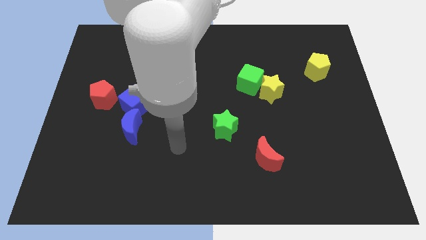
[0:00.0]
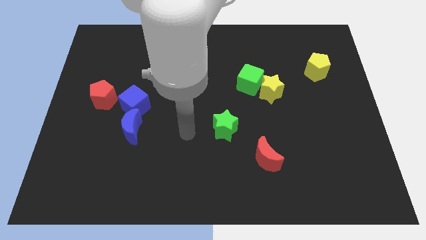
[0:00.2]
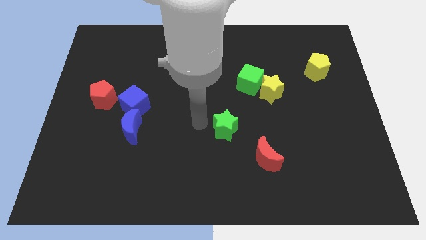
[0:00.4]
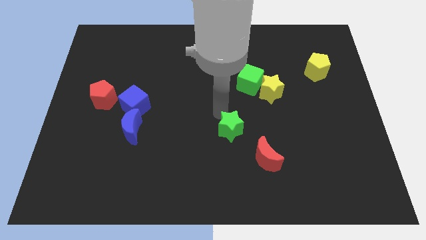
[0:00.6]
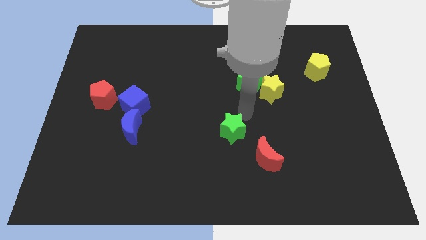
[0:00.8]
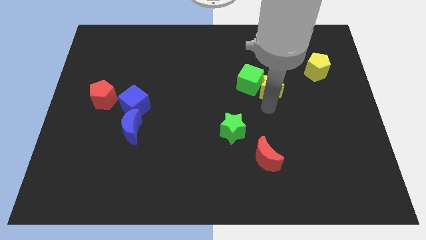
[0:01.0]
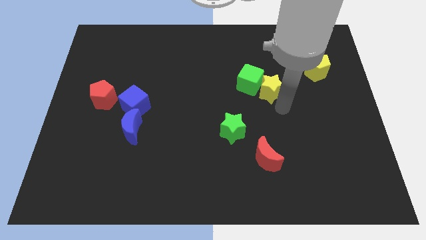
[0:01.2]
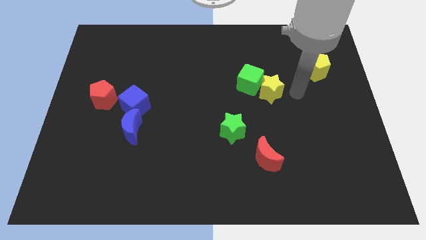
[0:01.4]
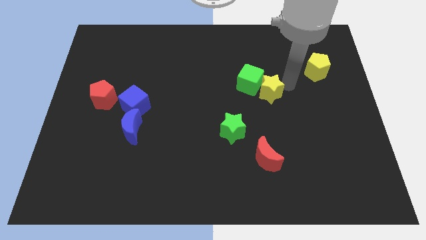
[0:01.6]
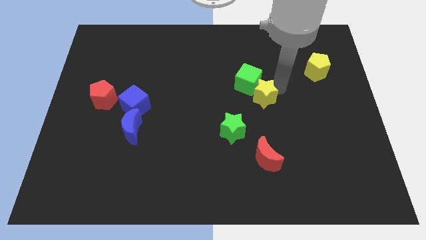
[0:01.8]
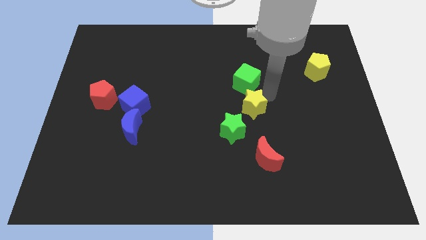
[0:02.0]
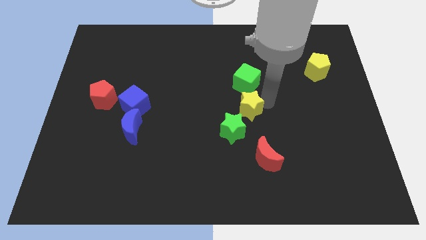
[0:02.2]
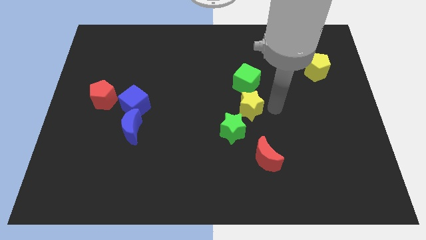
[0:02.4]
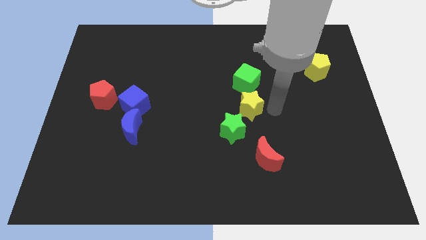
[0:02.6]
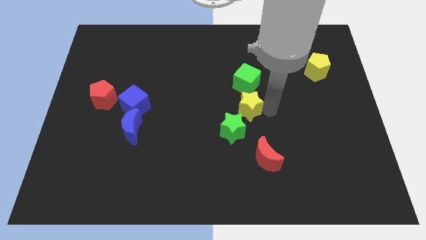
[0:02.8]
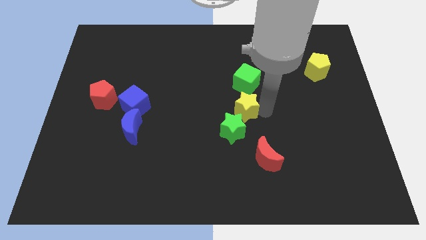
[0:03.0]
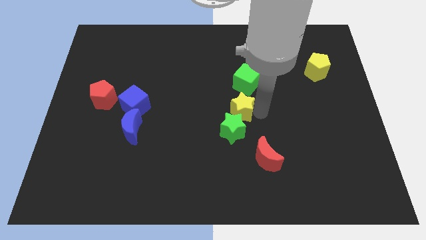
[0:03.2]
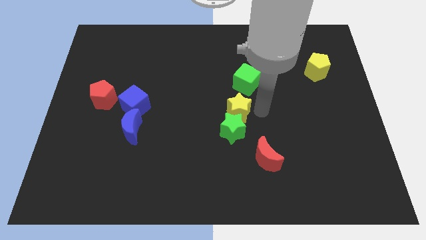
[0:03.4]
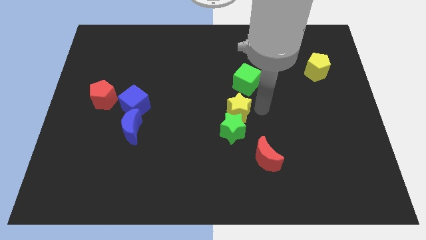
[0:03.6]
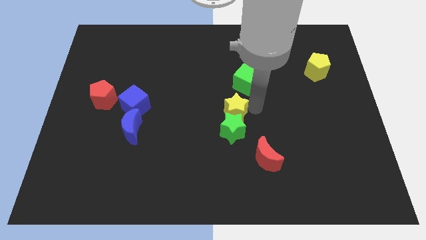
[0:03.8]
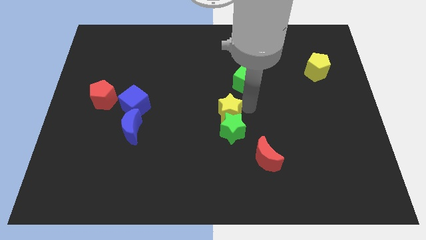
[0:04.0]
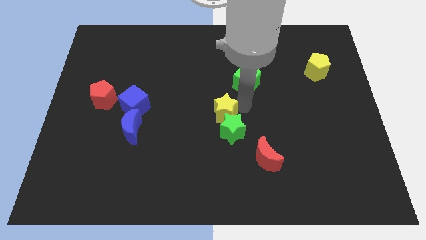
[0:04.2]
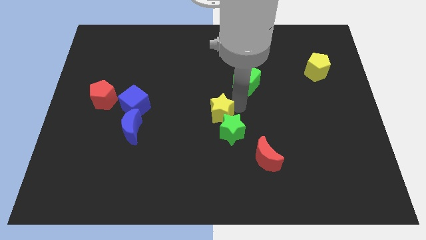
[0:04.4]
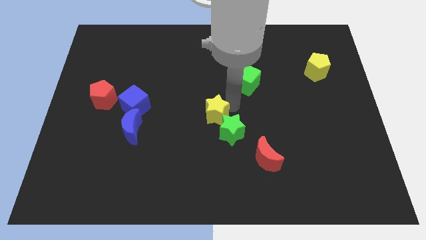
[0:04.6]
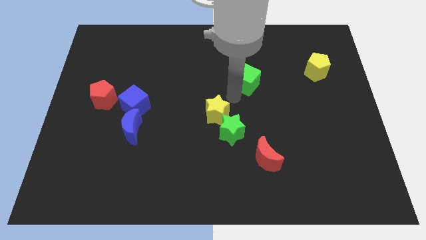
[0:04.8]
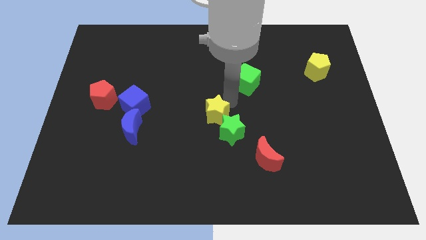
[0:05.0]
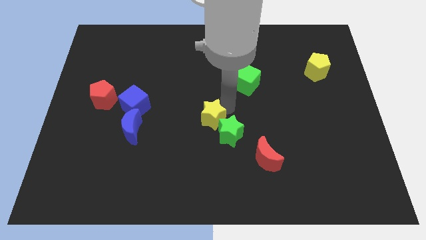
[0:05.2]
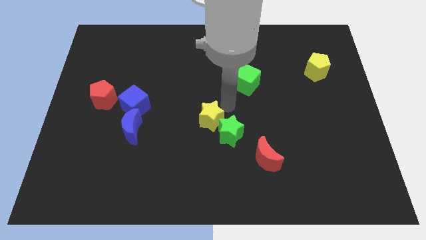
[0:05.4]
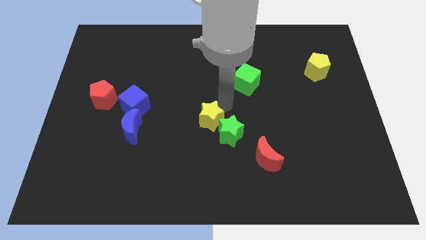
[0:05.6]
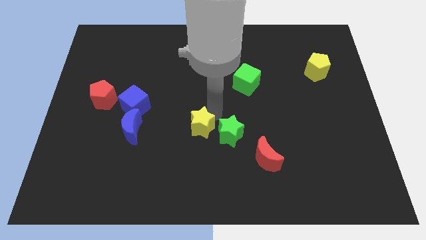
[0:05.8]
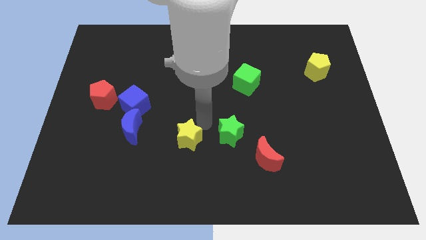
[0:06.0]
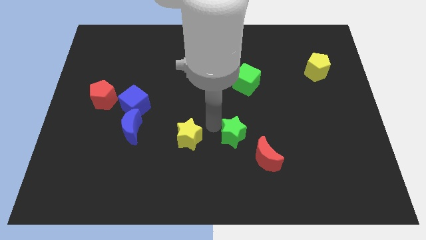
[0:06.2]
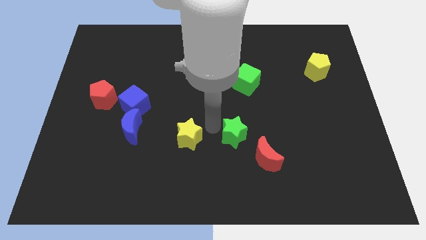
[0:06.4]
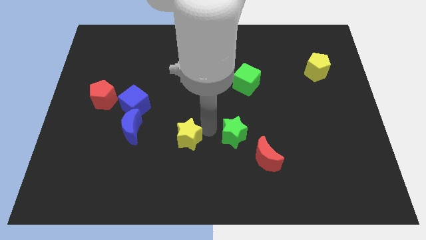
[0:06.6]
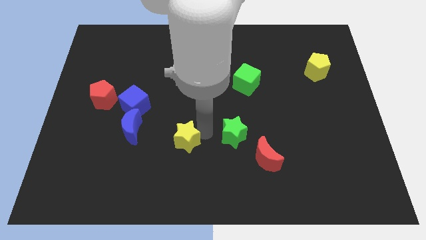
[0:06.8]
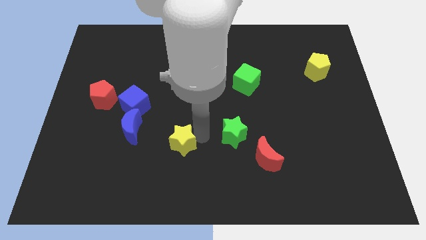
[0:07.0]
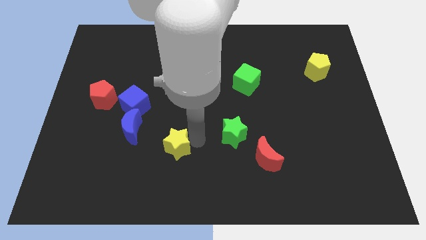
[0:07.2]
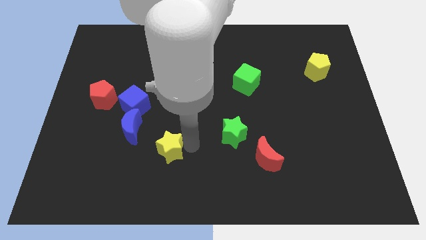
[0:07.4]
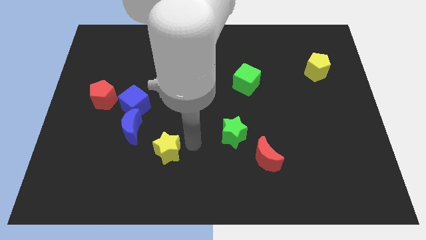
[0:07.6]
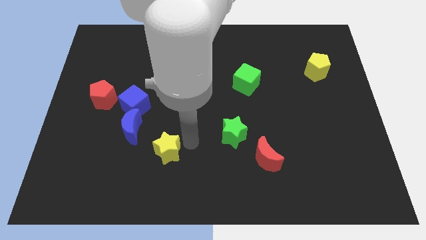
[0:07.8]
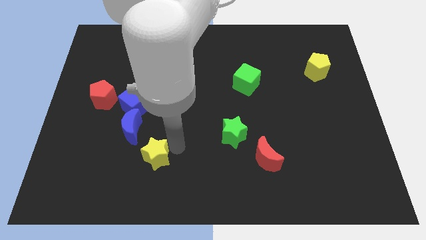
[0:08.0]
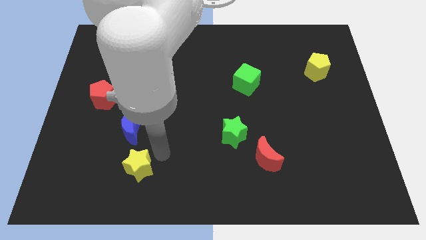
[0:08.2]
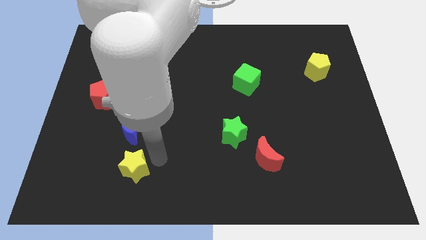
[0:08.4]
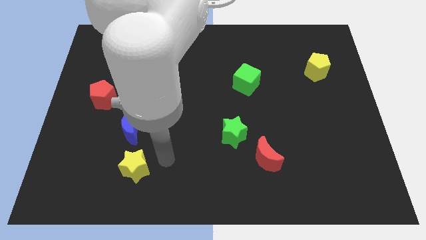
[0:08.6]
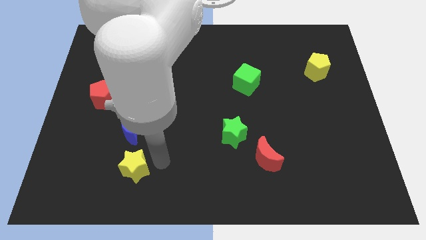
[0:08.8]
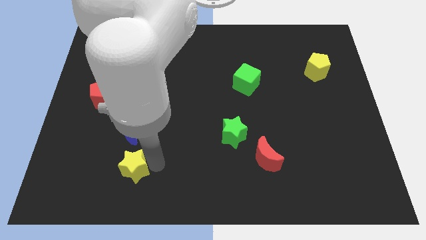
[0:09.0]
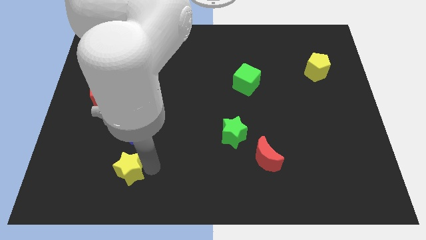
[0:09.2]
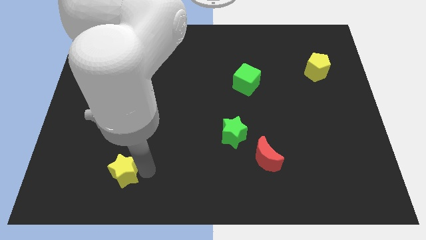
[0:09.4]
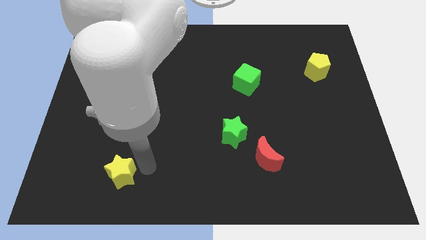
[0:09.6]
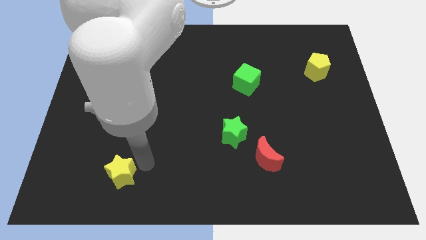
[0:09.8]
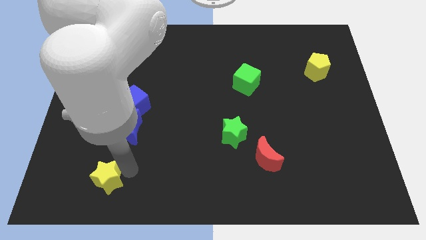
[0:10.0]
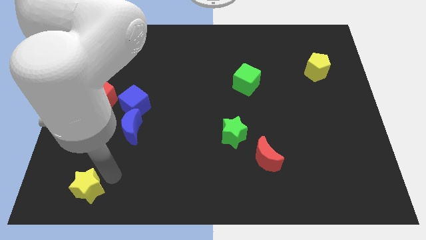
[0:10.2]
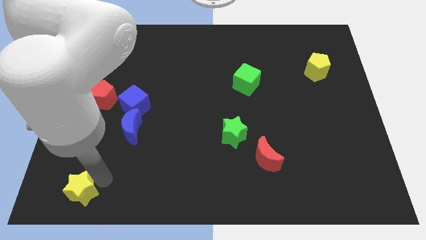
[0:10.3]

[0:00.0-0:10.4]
move the yellow star to the bottom left

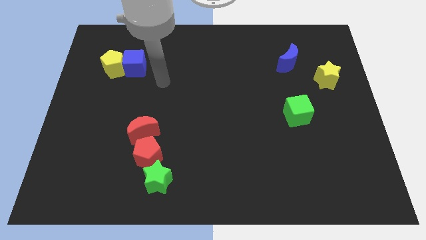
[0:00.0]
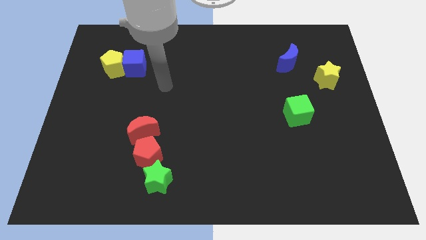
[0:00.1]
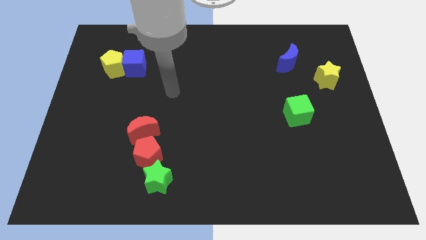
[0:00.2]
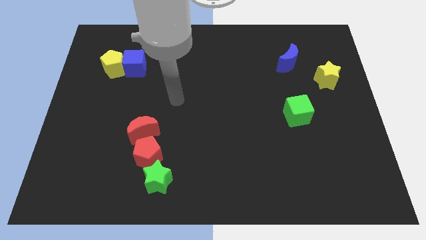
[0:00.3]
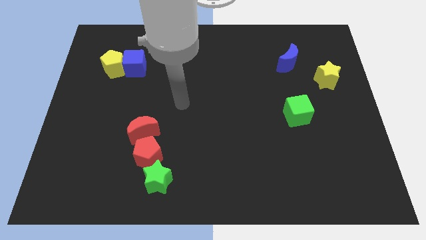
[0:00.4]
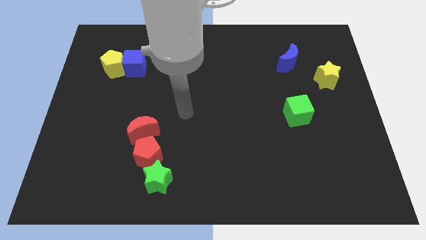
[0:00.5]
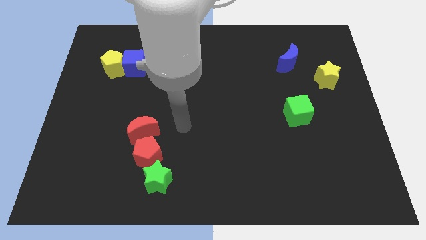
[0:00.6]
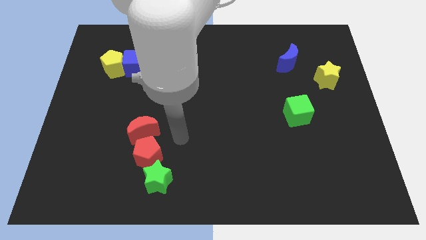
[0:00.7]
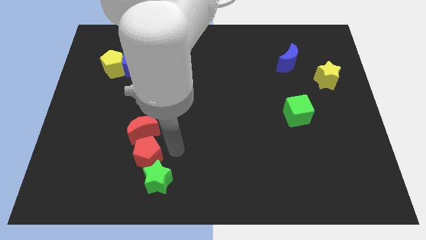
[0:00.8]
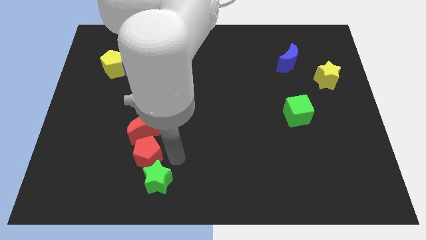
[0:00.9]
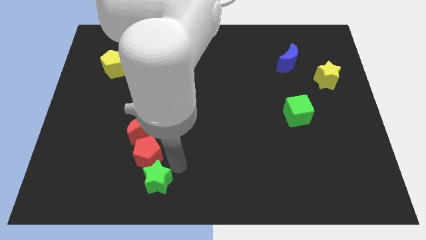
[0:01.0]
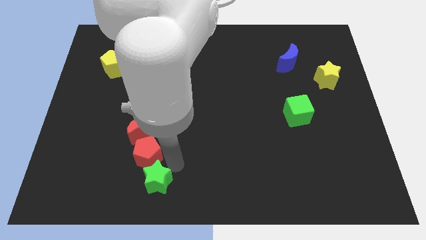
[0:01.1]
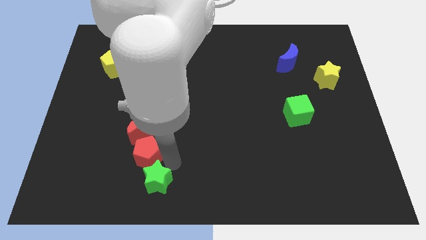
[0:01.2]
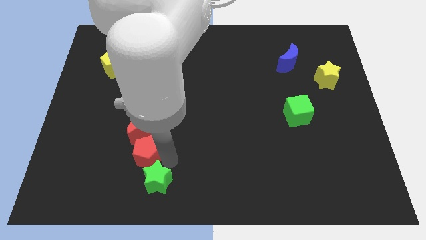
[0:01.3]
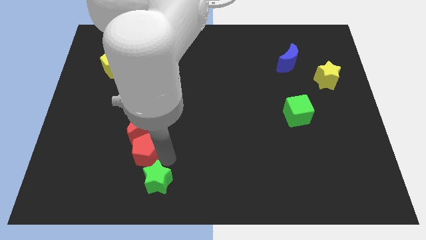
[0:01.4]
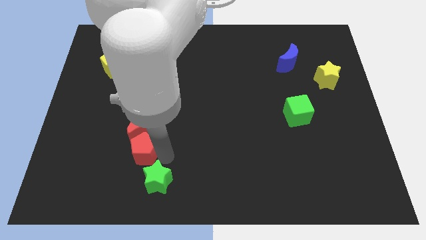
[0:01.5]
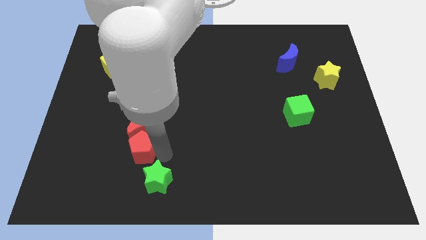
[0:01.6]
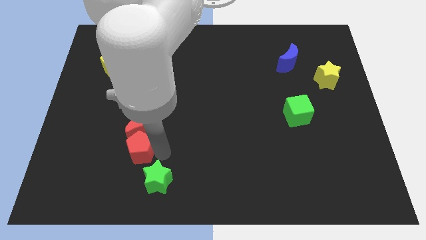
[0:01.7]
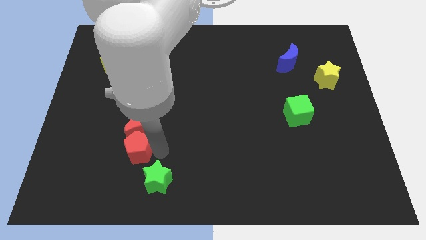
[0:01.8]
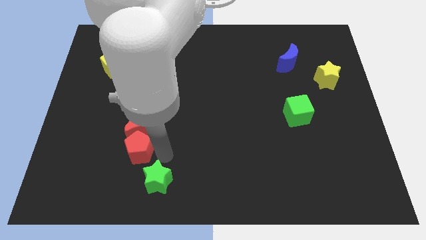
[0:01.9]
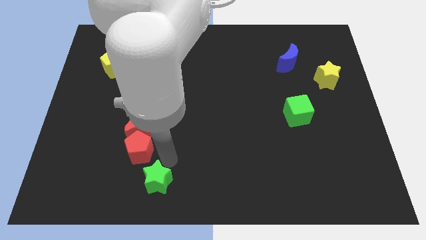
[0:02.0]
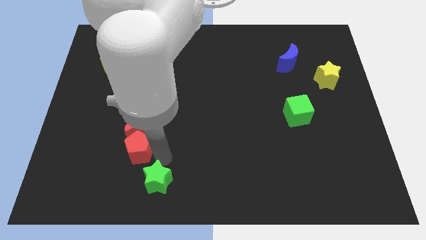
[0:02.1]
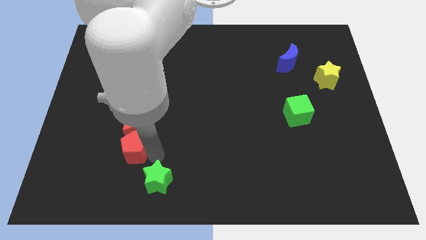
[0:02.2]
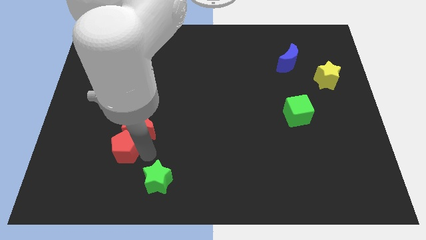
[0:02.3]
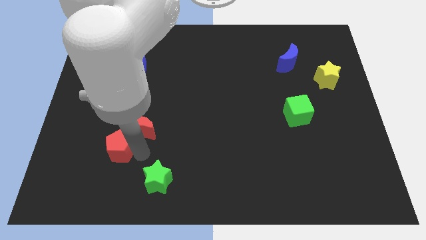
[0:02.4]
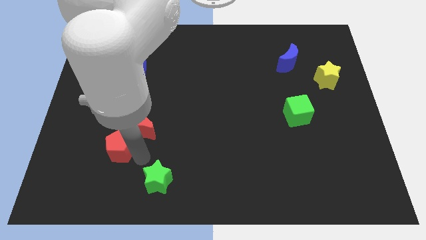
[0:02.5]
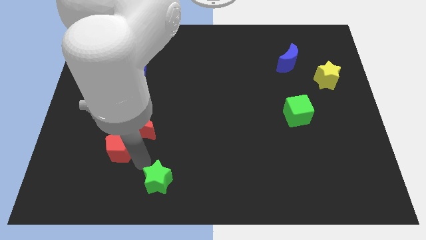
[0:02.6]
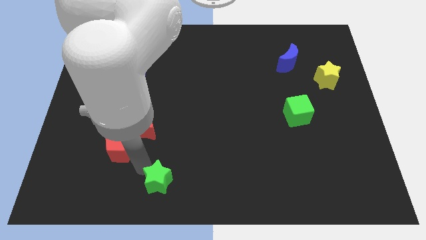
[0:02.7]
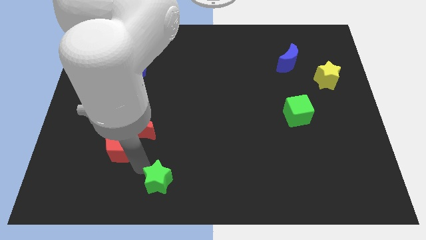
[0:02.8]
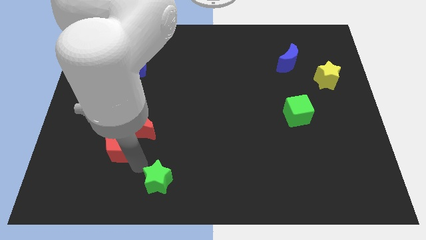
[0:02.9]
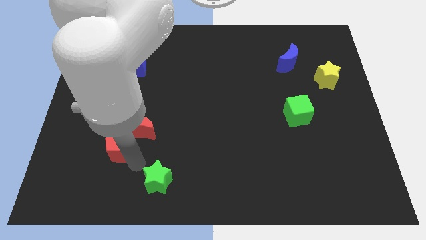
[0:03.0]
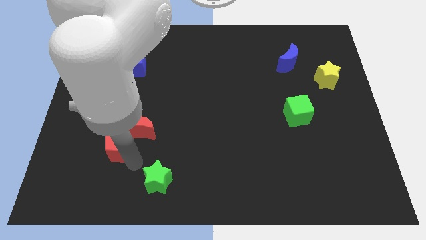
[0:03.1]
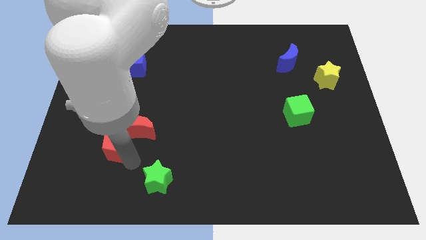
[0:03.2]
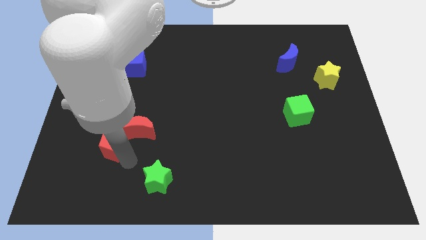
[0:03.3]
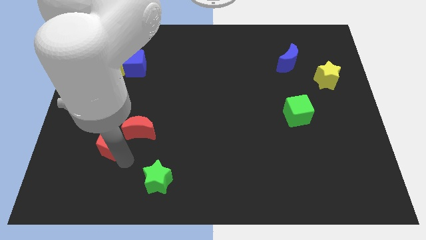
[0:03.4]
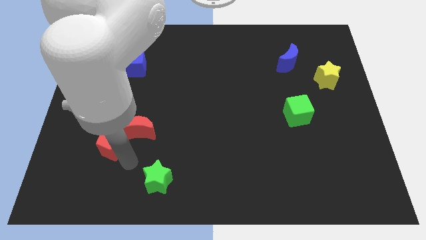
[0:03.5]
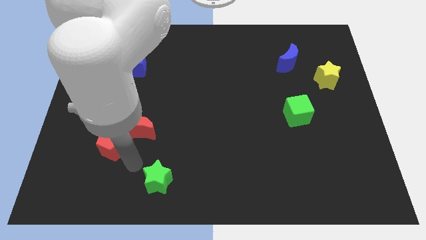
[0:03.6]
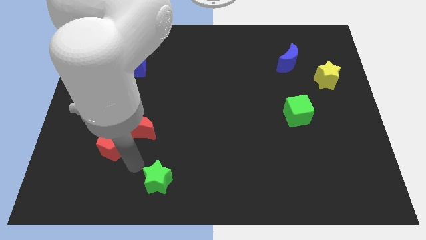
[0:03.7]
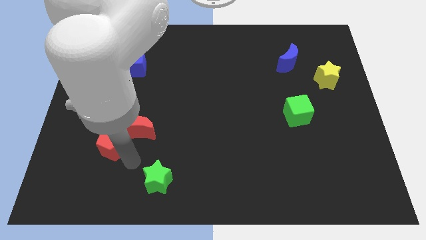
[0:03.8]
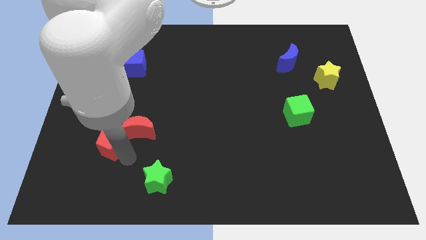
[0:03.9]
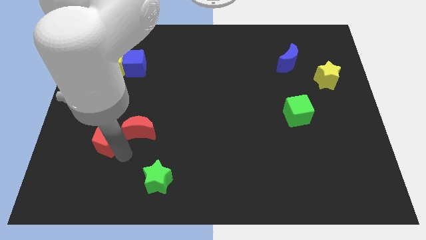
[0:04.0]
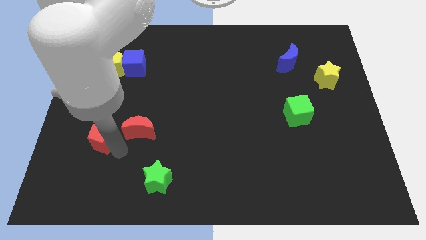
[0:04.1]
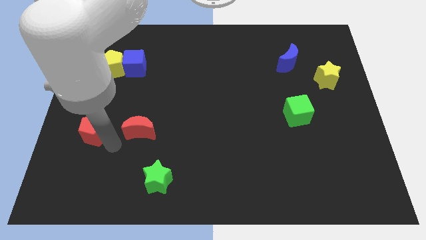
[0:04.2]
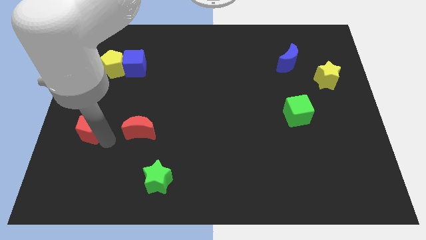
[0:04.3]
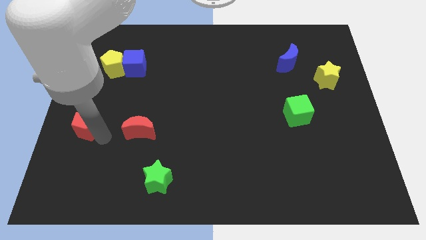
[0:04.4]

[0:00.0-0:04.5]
push the red pentagon to the left side of the board
